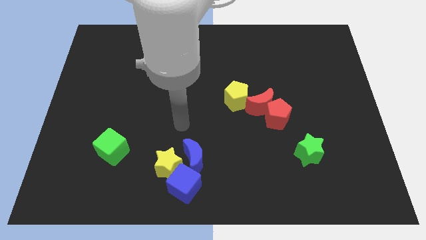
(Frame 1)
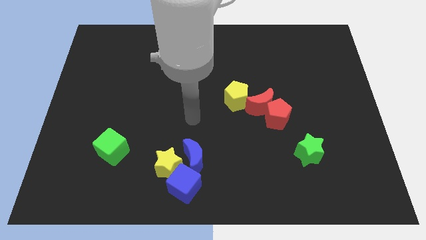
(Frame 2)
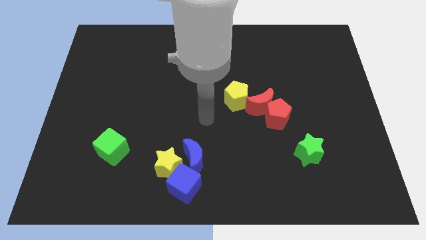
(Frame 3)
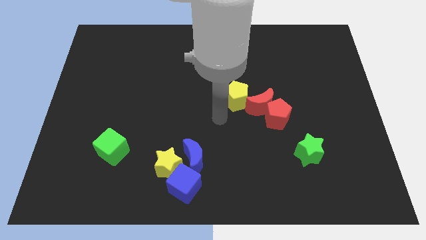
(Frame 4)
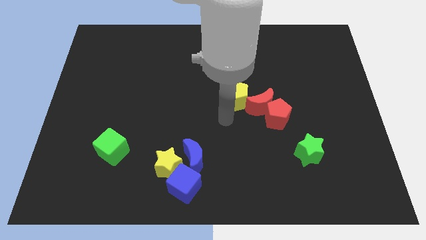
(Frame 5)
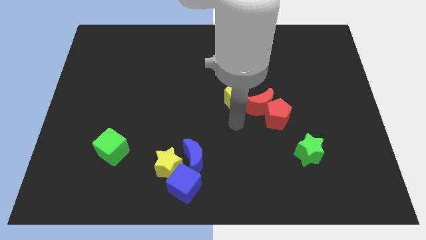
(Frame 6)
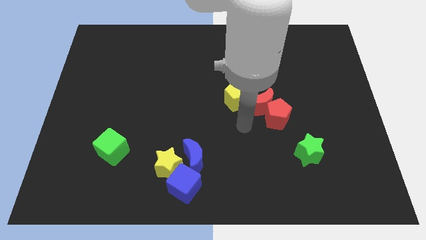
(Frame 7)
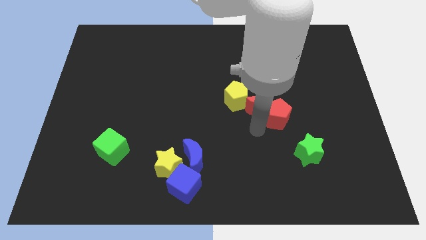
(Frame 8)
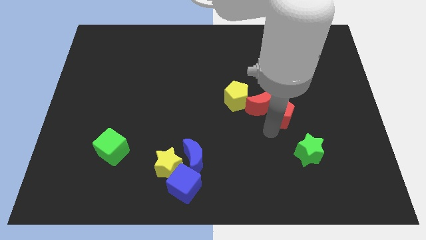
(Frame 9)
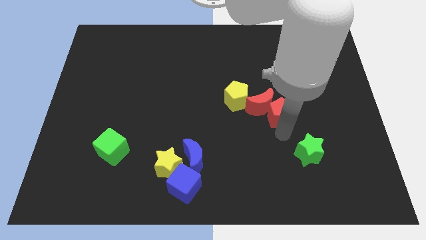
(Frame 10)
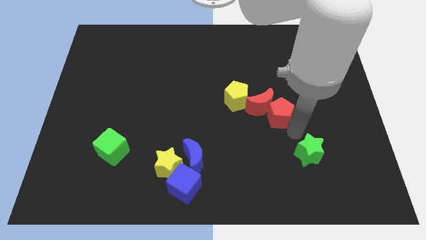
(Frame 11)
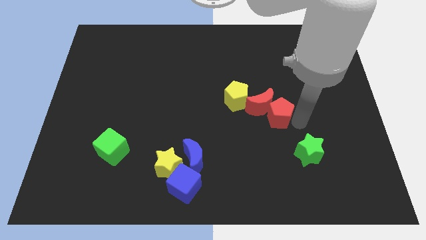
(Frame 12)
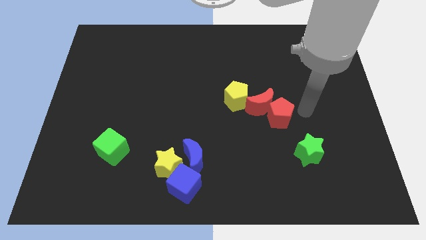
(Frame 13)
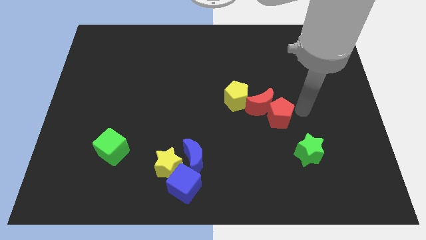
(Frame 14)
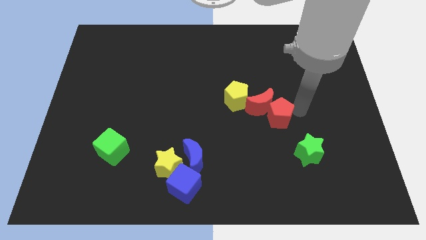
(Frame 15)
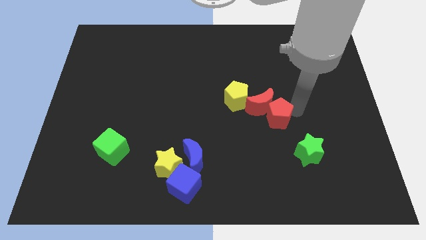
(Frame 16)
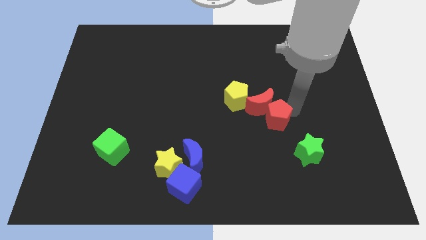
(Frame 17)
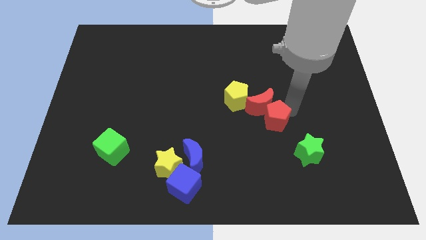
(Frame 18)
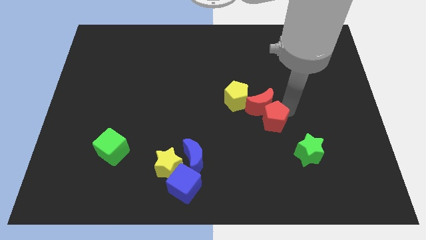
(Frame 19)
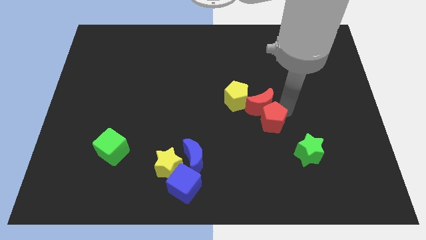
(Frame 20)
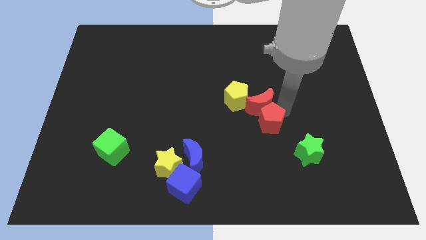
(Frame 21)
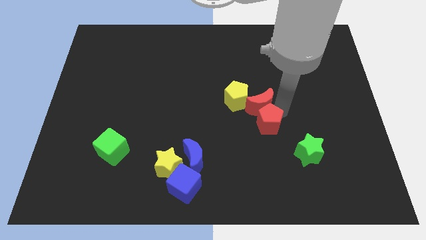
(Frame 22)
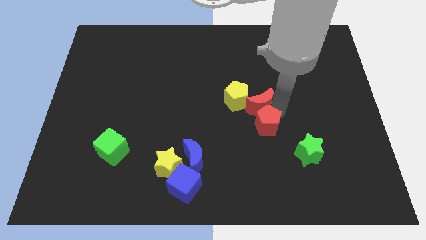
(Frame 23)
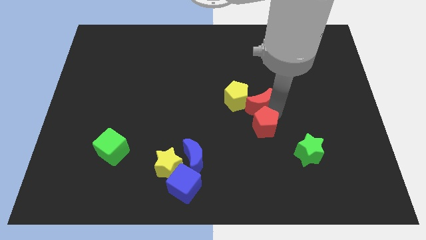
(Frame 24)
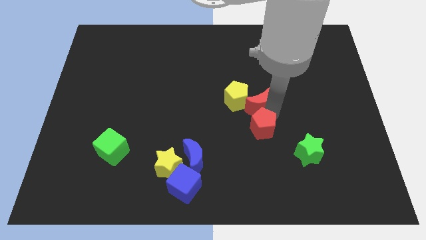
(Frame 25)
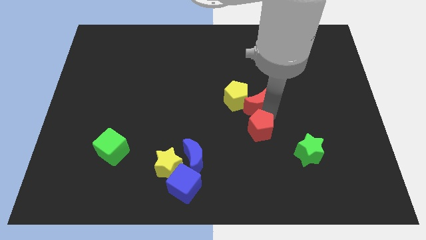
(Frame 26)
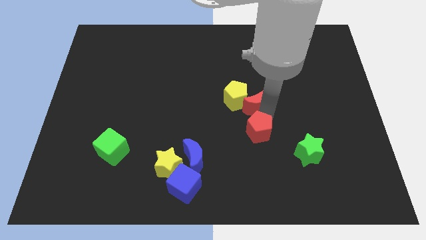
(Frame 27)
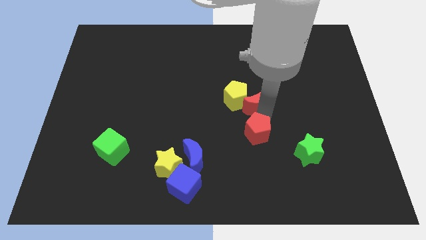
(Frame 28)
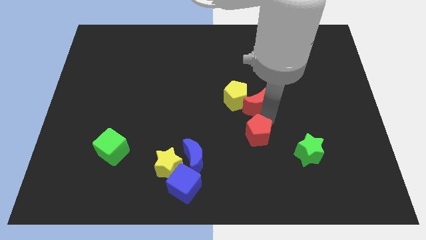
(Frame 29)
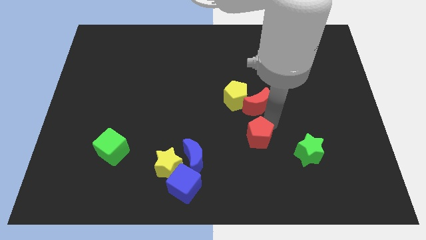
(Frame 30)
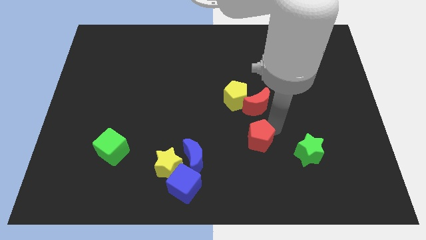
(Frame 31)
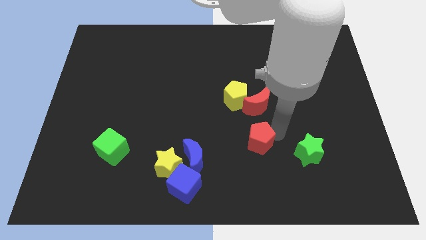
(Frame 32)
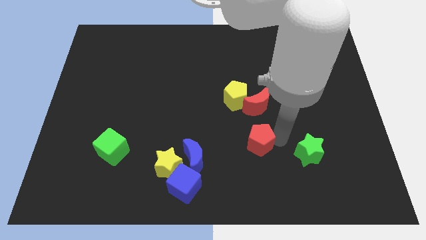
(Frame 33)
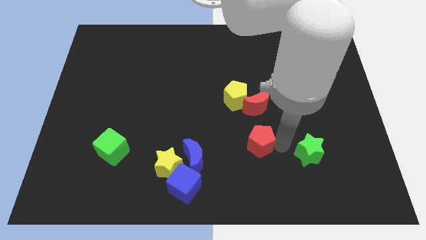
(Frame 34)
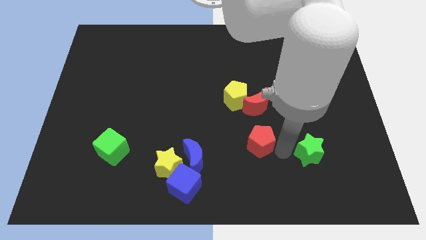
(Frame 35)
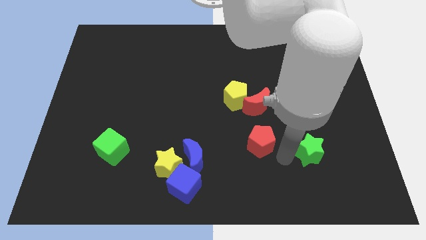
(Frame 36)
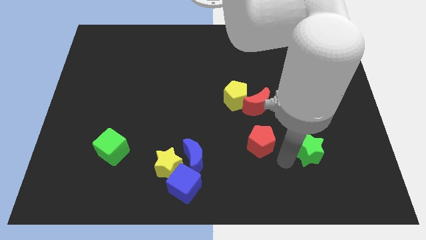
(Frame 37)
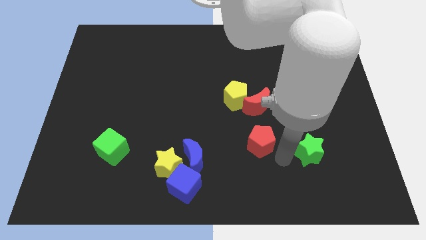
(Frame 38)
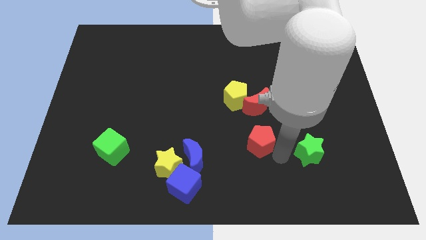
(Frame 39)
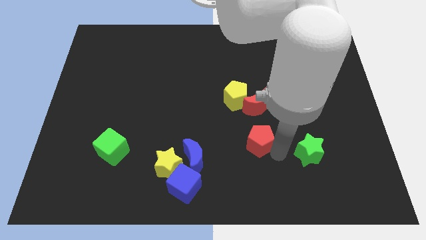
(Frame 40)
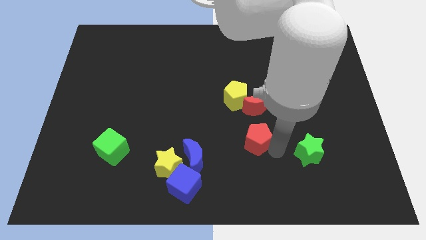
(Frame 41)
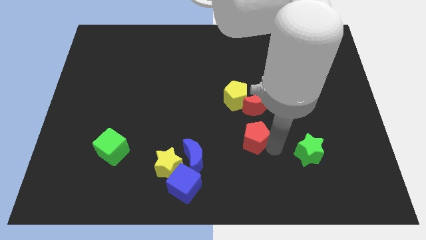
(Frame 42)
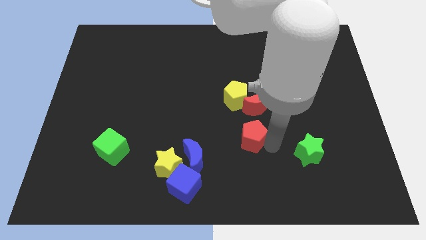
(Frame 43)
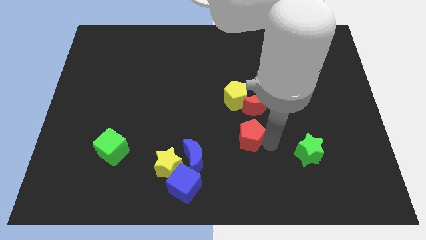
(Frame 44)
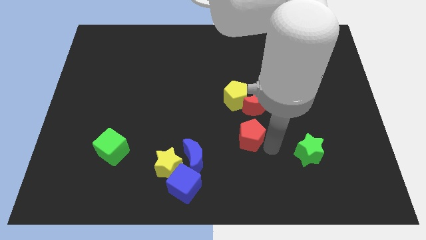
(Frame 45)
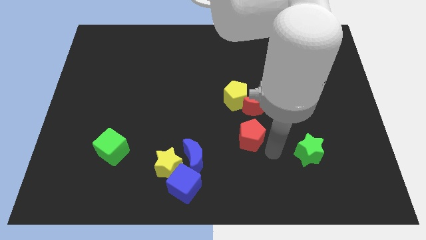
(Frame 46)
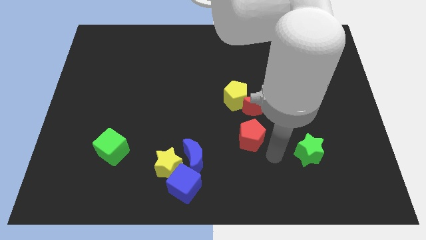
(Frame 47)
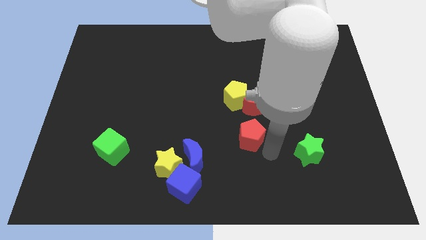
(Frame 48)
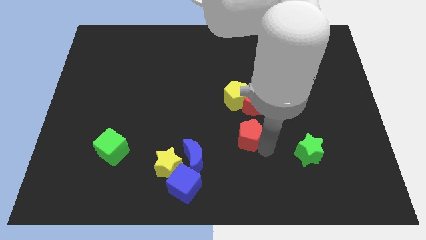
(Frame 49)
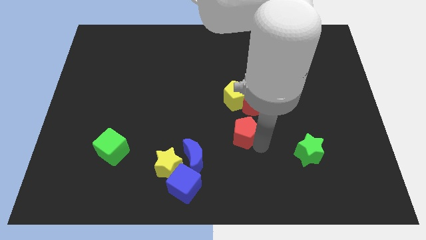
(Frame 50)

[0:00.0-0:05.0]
put the red pentagon to the center

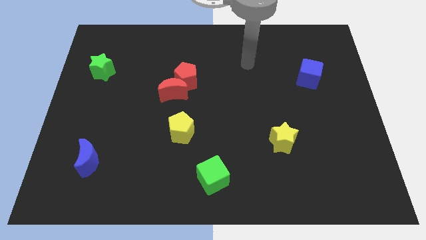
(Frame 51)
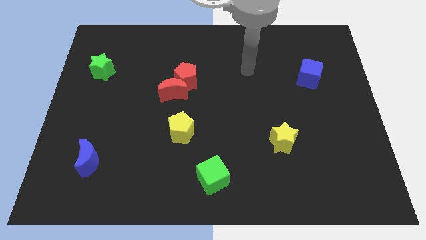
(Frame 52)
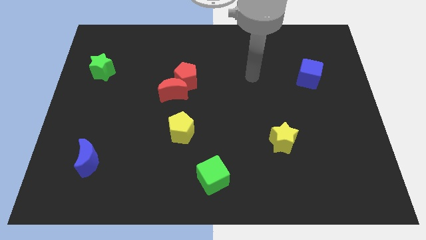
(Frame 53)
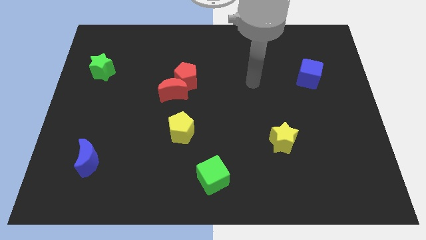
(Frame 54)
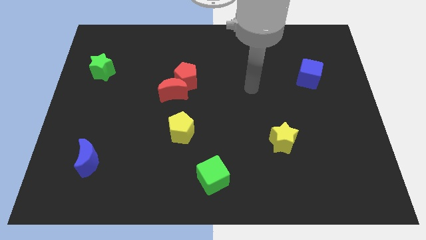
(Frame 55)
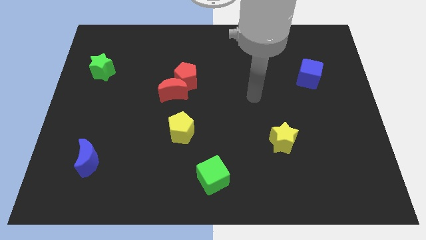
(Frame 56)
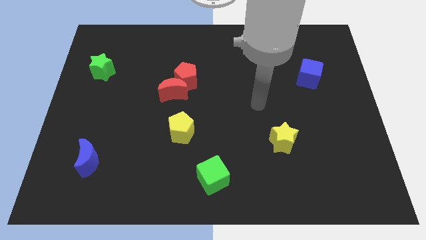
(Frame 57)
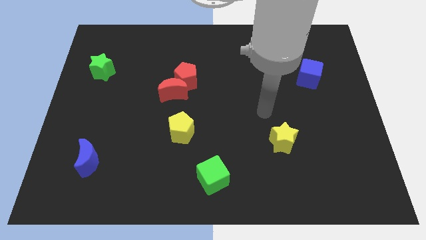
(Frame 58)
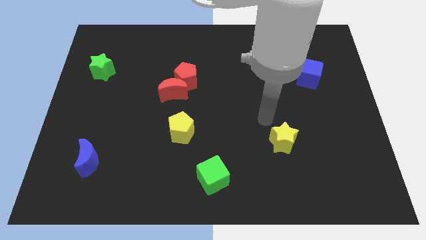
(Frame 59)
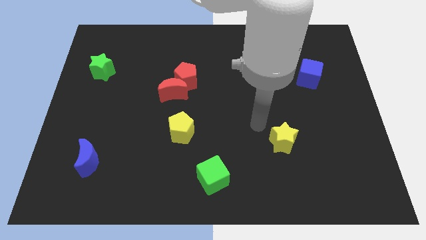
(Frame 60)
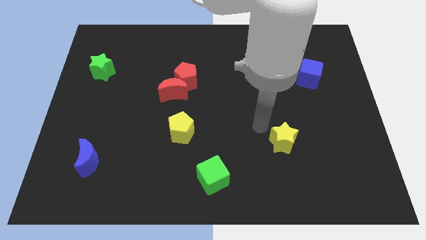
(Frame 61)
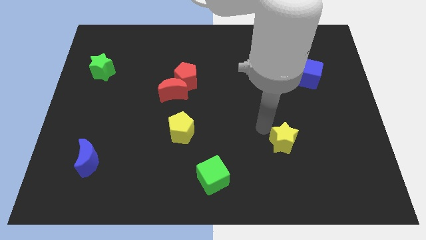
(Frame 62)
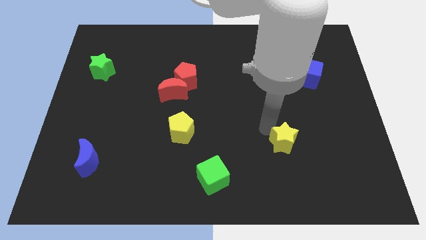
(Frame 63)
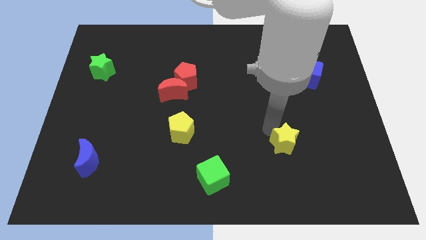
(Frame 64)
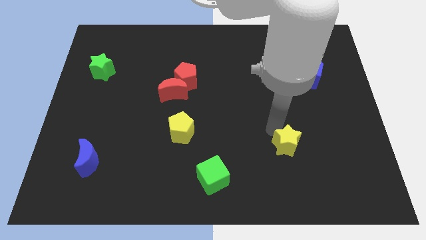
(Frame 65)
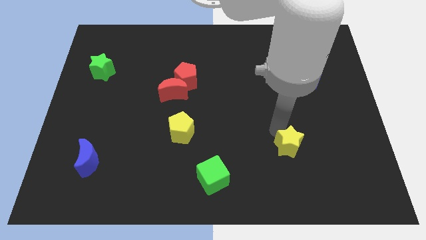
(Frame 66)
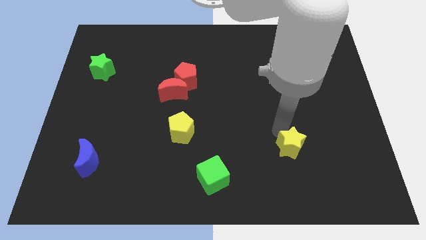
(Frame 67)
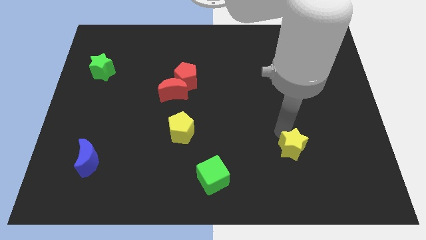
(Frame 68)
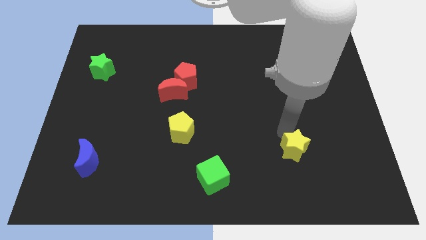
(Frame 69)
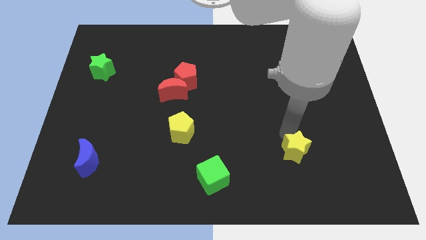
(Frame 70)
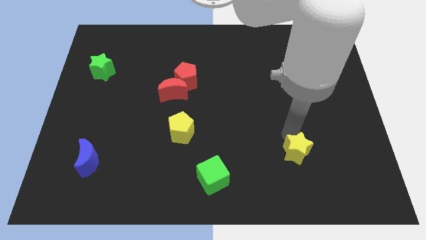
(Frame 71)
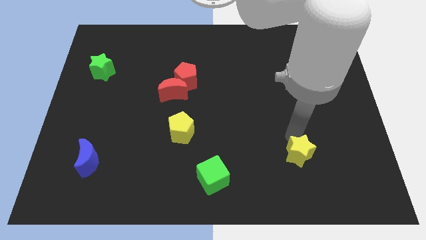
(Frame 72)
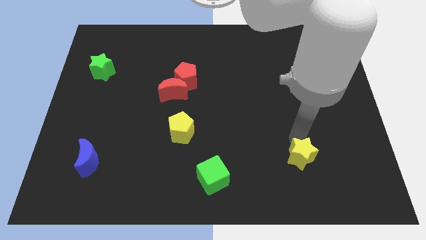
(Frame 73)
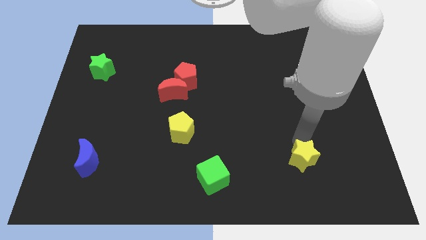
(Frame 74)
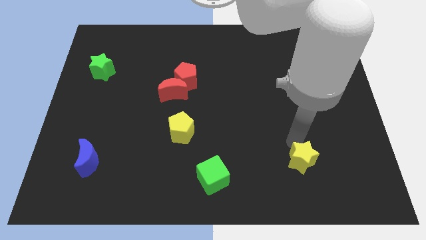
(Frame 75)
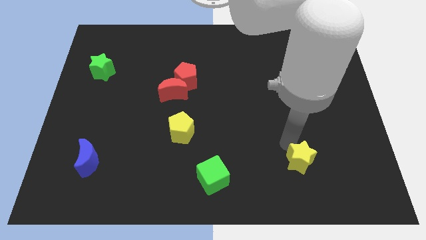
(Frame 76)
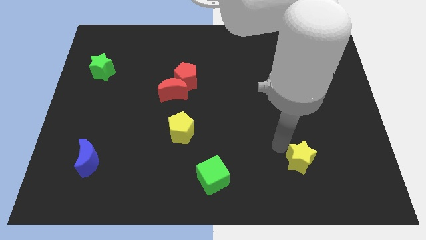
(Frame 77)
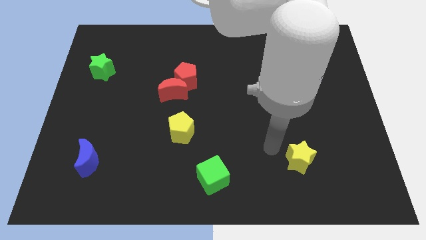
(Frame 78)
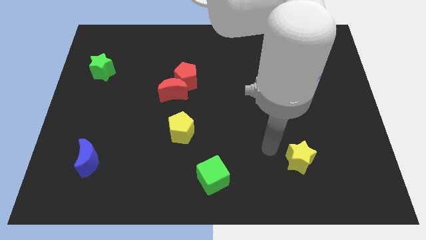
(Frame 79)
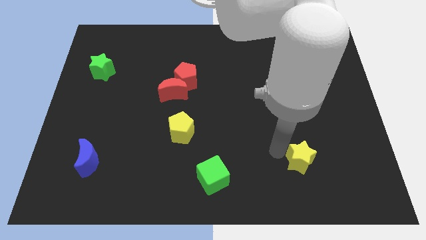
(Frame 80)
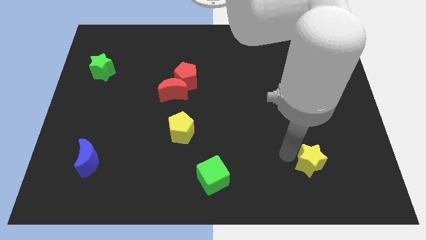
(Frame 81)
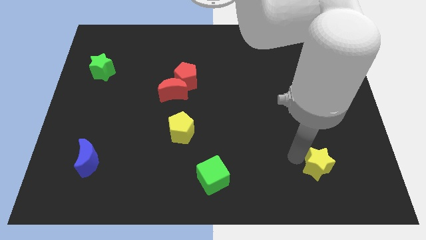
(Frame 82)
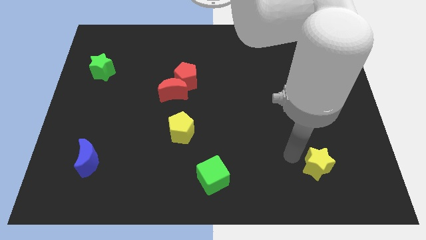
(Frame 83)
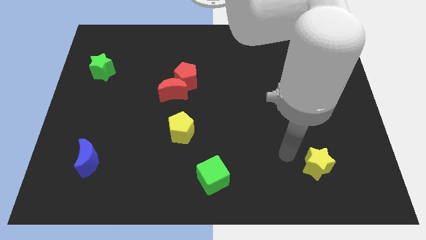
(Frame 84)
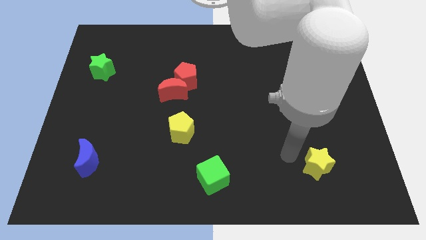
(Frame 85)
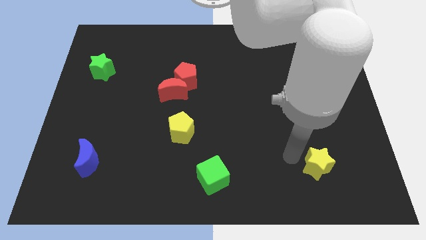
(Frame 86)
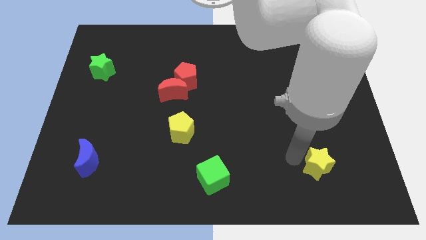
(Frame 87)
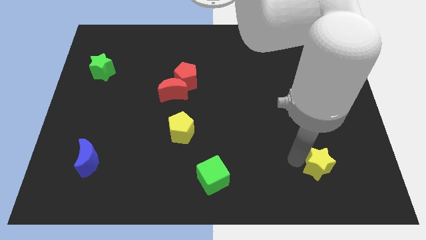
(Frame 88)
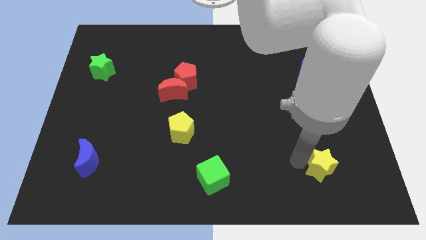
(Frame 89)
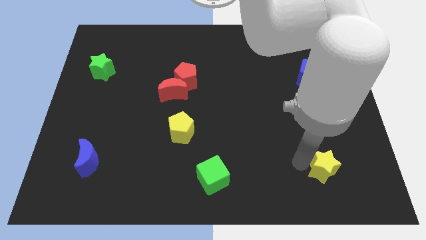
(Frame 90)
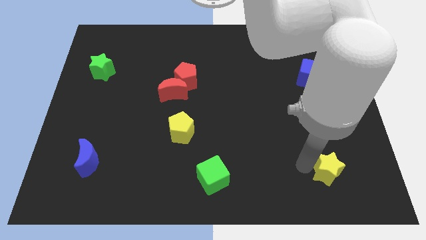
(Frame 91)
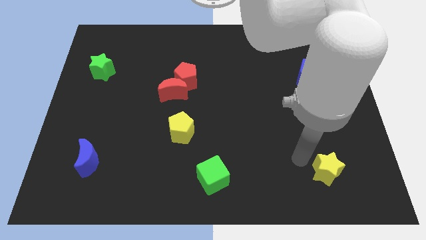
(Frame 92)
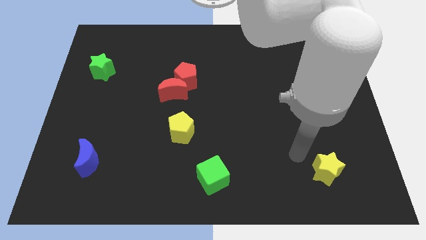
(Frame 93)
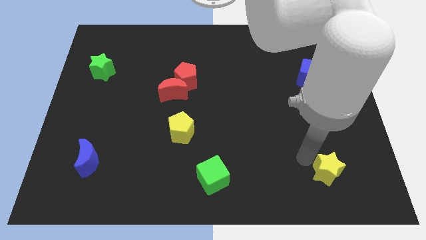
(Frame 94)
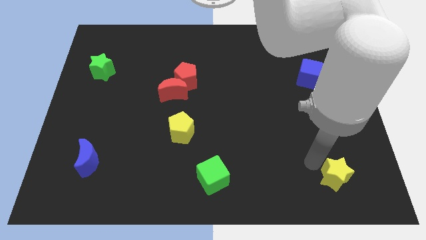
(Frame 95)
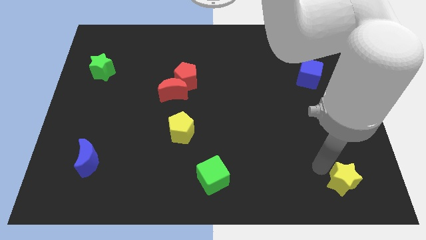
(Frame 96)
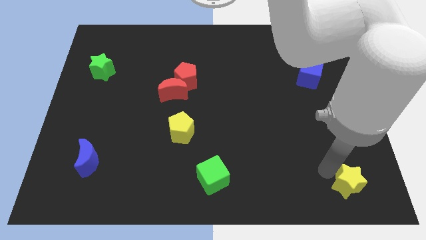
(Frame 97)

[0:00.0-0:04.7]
push the yellow star to the lower right corner
